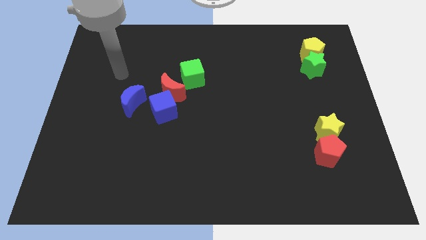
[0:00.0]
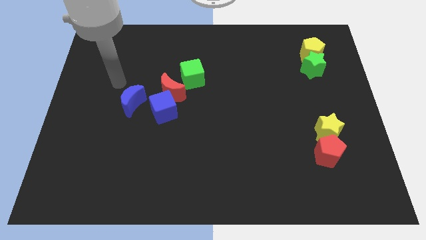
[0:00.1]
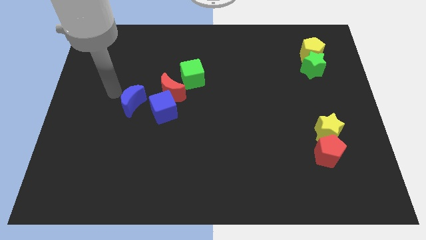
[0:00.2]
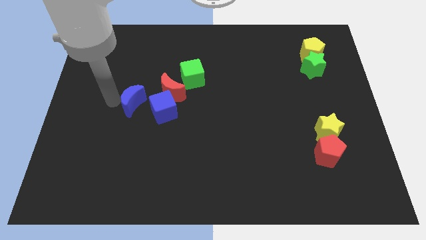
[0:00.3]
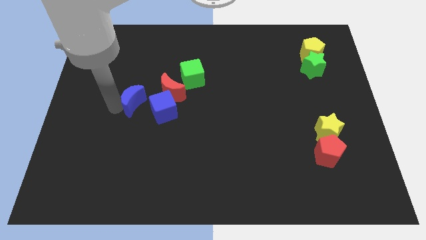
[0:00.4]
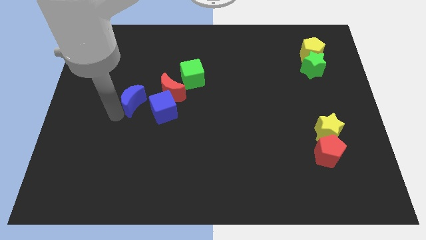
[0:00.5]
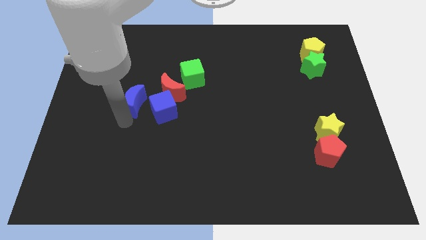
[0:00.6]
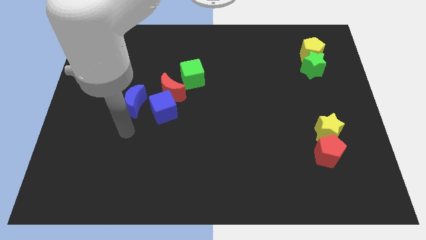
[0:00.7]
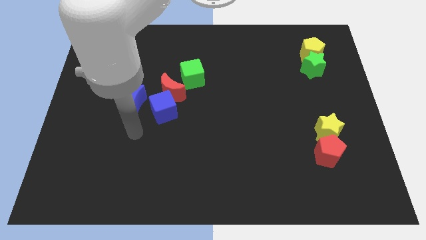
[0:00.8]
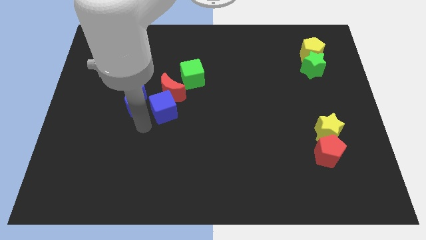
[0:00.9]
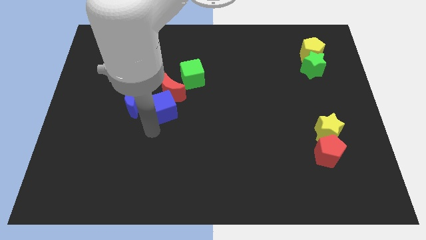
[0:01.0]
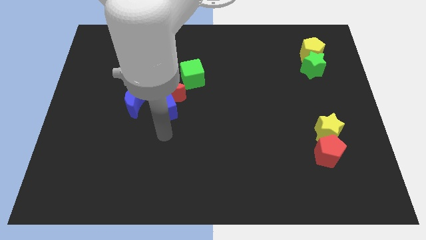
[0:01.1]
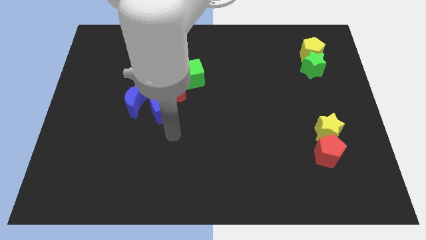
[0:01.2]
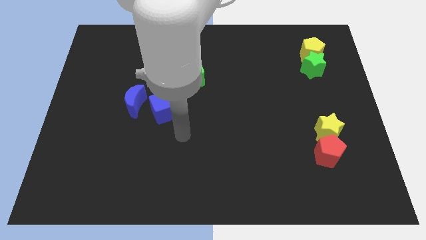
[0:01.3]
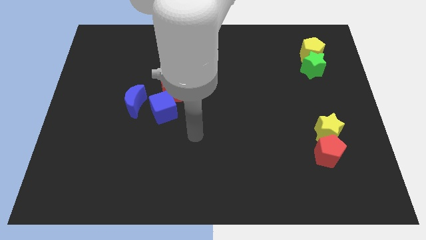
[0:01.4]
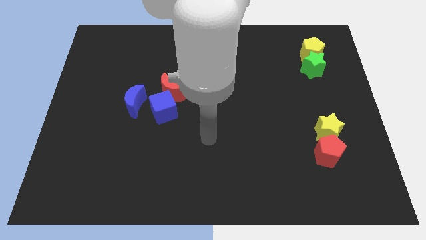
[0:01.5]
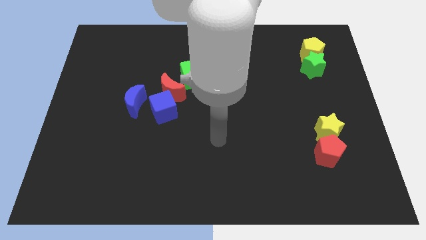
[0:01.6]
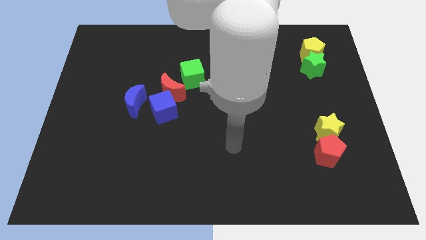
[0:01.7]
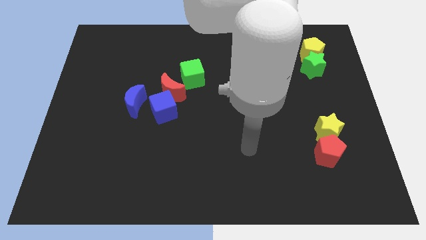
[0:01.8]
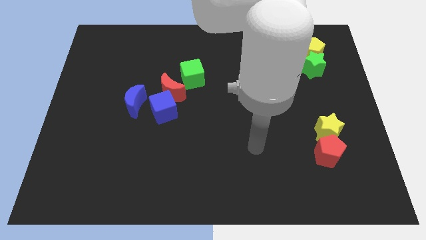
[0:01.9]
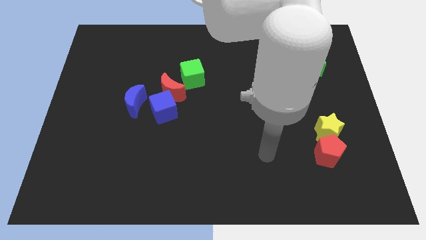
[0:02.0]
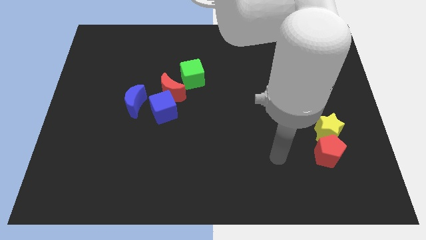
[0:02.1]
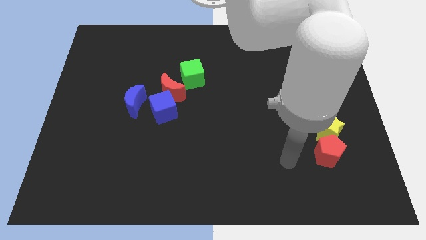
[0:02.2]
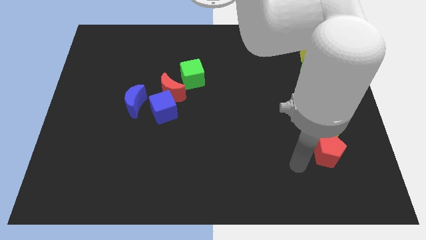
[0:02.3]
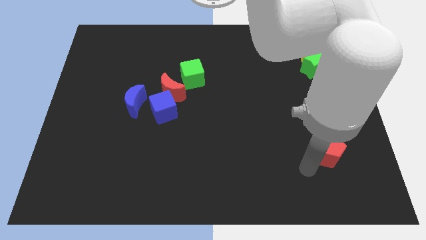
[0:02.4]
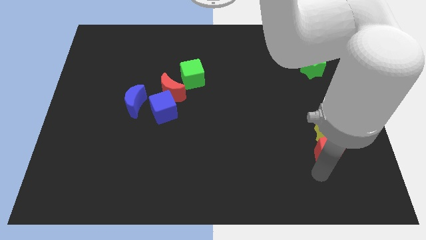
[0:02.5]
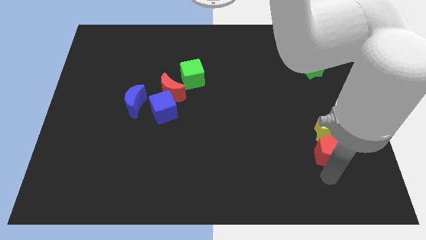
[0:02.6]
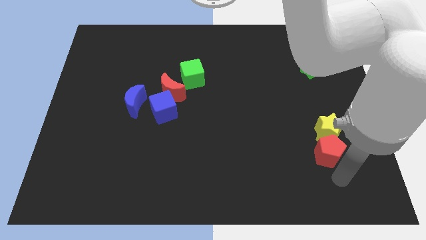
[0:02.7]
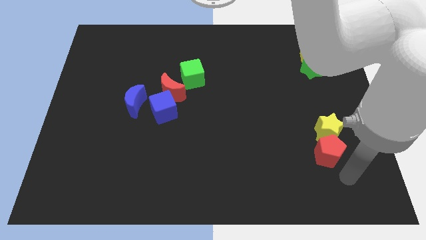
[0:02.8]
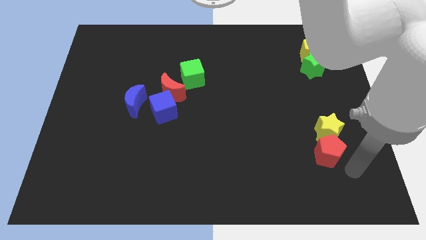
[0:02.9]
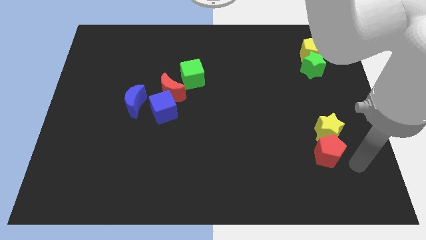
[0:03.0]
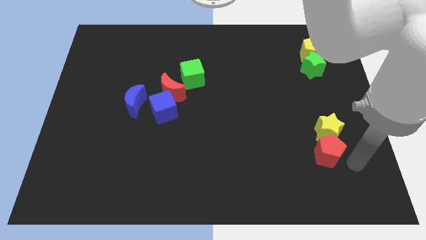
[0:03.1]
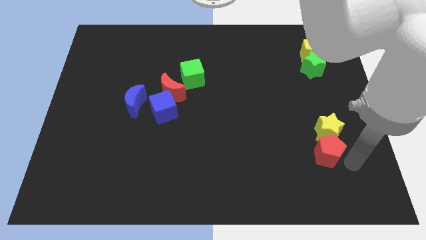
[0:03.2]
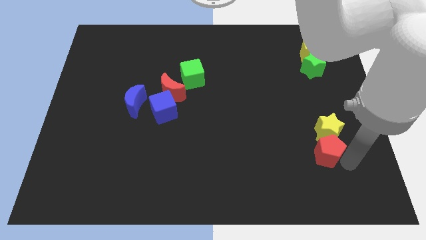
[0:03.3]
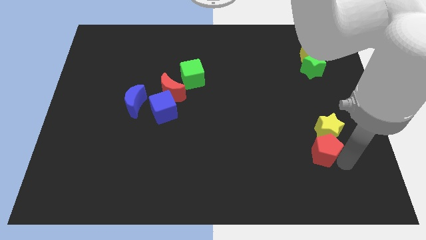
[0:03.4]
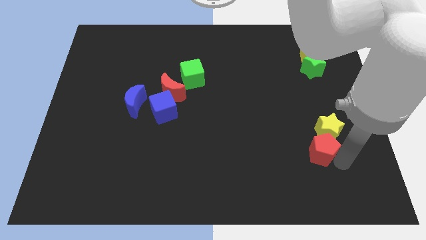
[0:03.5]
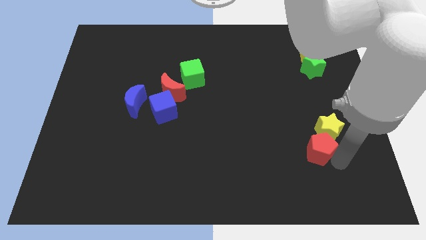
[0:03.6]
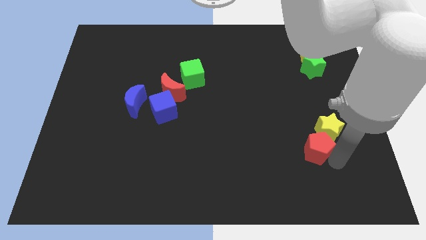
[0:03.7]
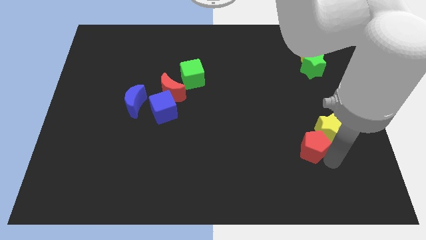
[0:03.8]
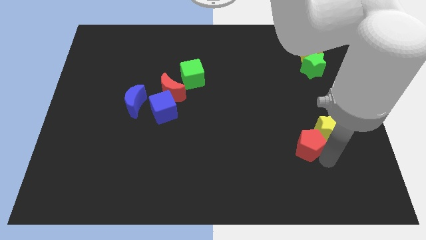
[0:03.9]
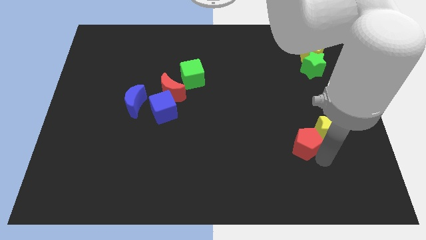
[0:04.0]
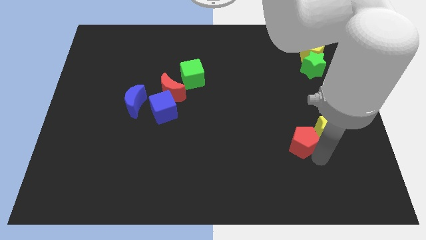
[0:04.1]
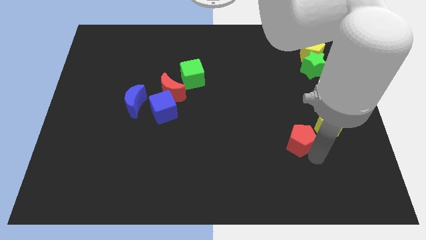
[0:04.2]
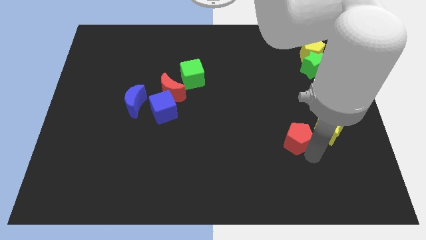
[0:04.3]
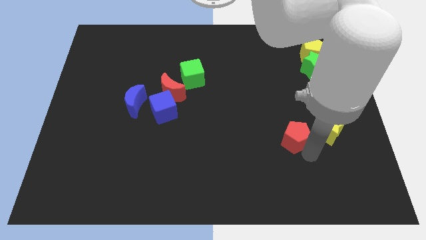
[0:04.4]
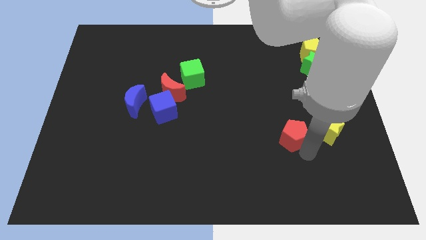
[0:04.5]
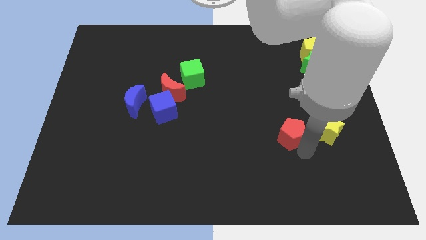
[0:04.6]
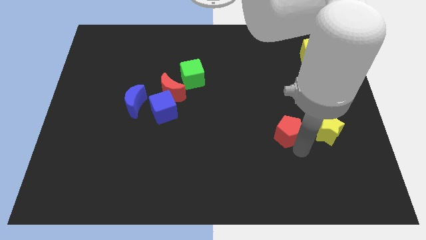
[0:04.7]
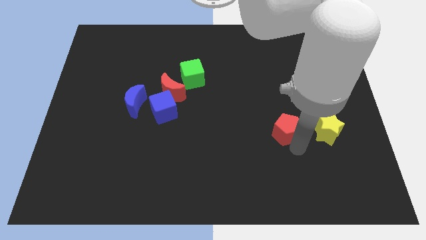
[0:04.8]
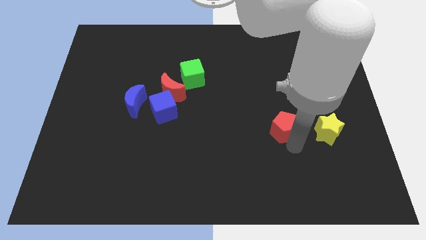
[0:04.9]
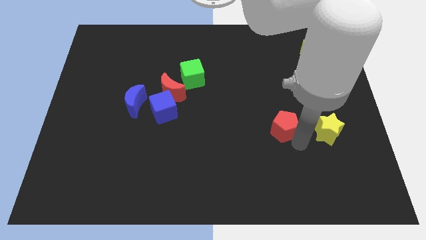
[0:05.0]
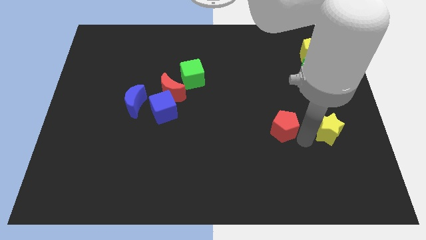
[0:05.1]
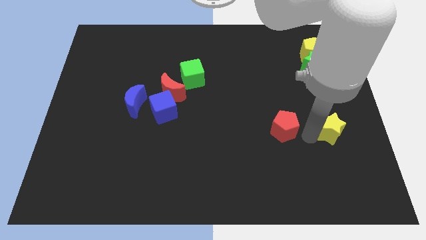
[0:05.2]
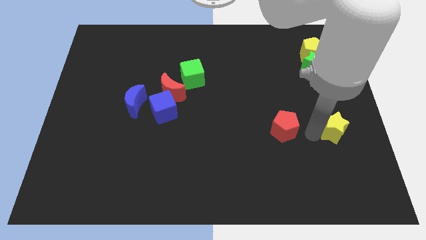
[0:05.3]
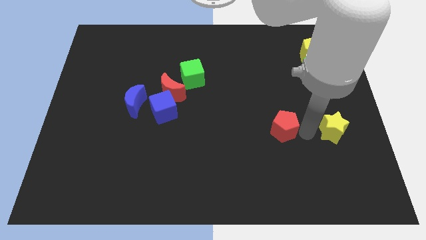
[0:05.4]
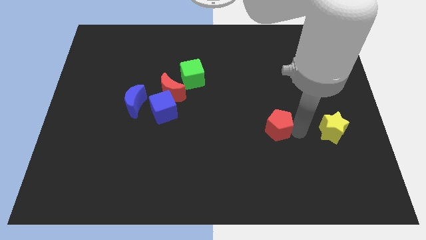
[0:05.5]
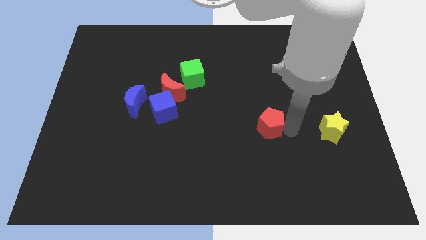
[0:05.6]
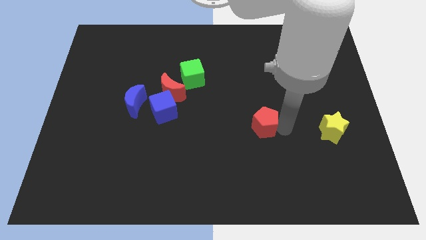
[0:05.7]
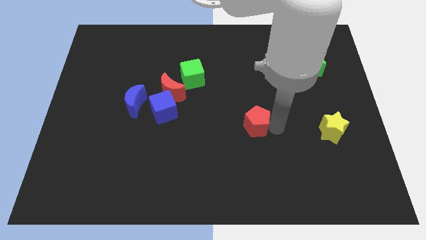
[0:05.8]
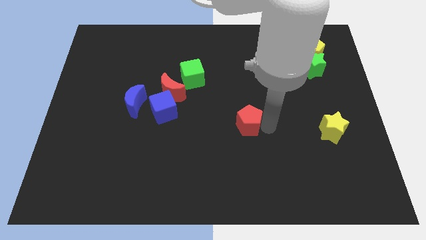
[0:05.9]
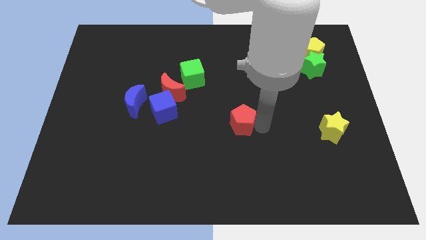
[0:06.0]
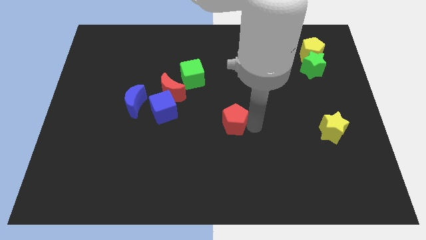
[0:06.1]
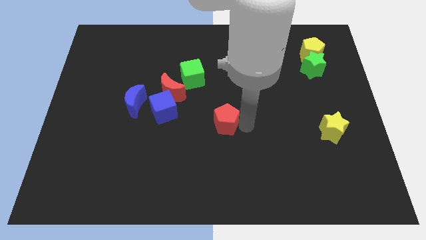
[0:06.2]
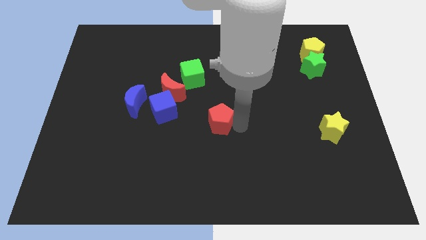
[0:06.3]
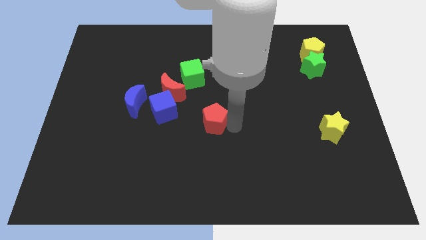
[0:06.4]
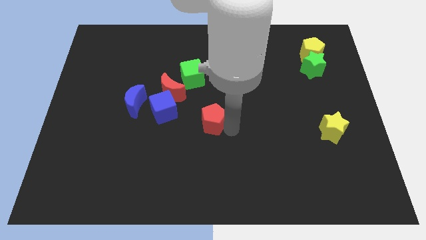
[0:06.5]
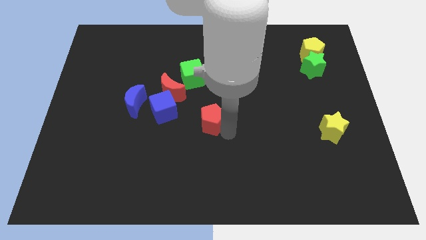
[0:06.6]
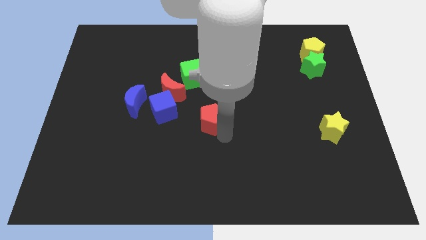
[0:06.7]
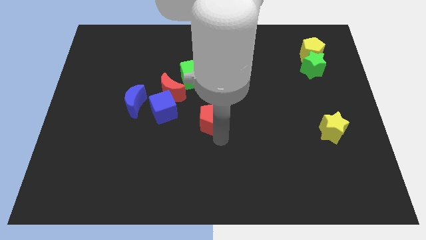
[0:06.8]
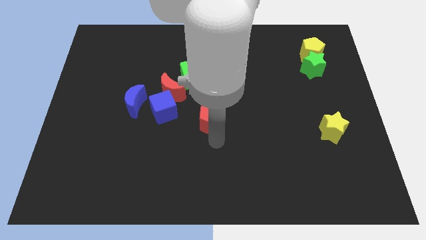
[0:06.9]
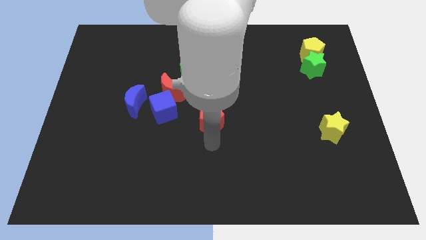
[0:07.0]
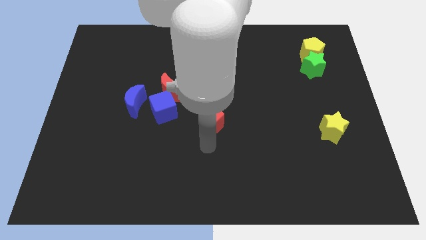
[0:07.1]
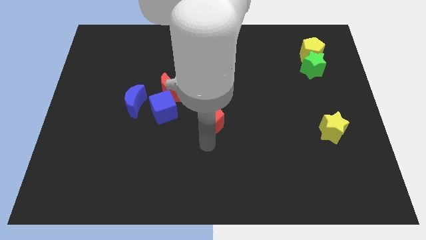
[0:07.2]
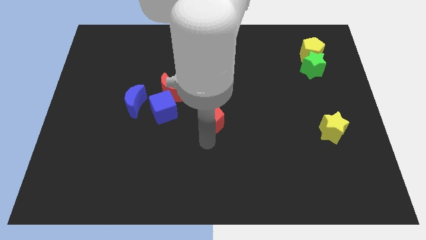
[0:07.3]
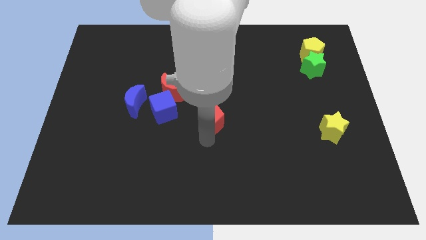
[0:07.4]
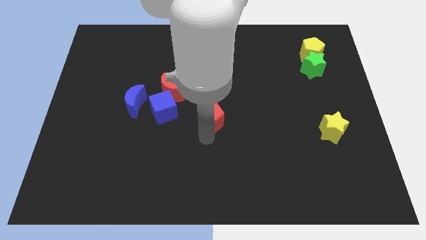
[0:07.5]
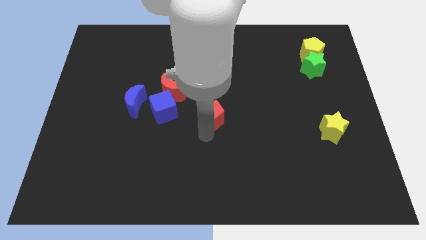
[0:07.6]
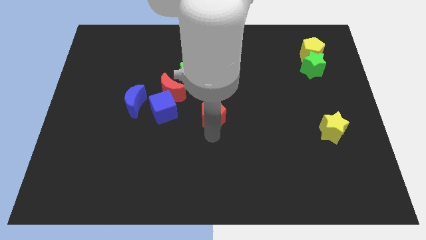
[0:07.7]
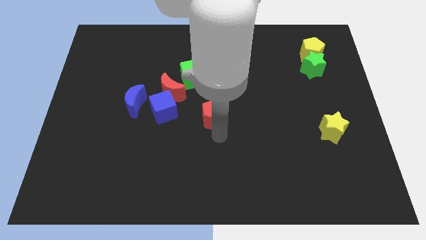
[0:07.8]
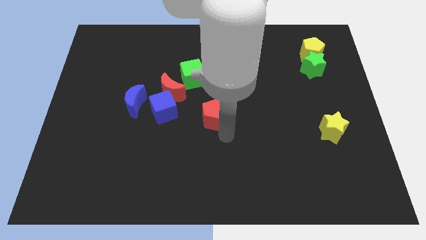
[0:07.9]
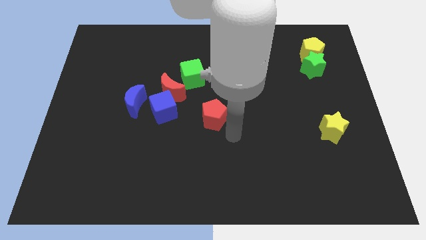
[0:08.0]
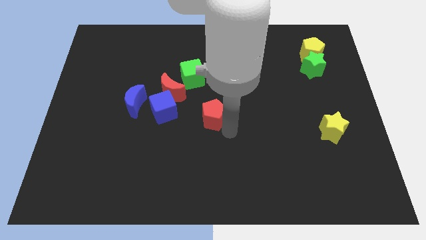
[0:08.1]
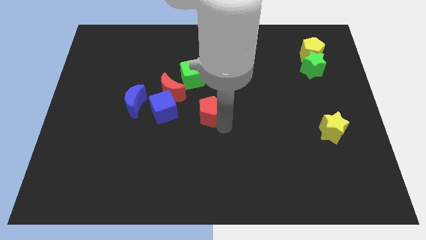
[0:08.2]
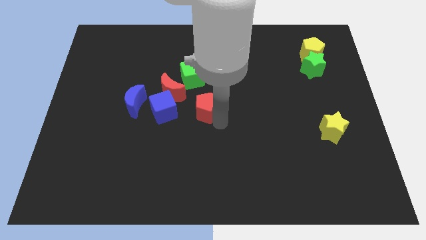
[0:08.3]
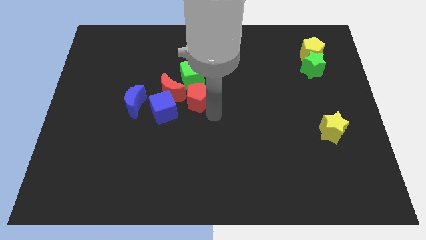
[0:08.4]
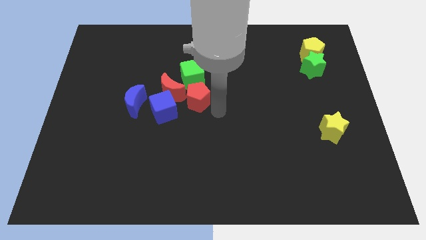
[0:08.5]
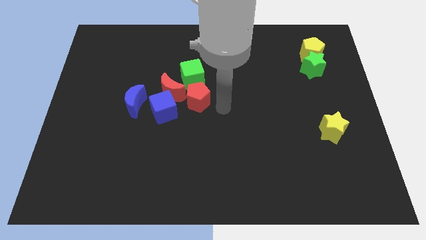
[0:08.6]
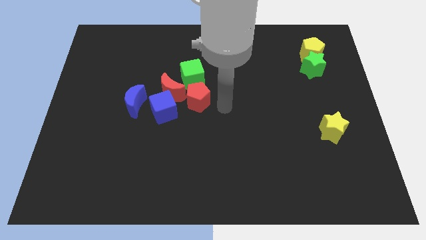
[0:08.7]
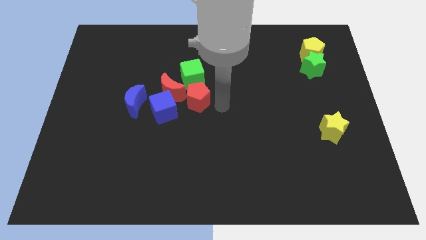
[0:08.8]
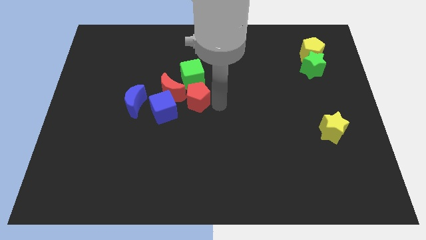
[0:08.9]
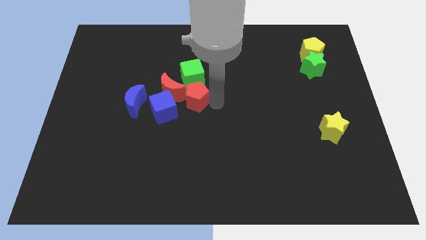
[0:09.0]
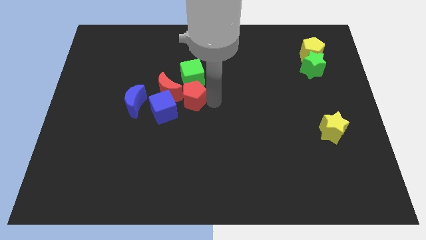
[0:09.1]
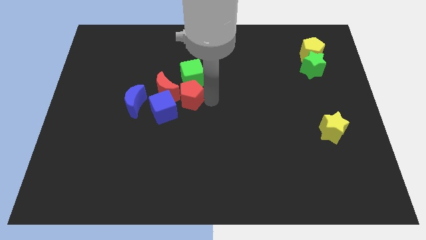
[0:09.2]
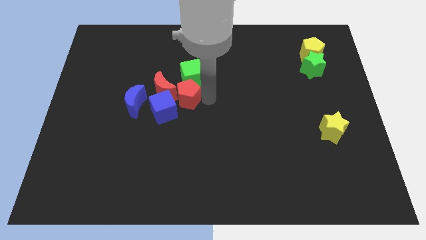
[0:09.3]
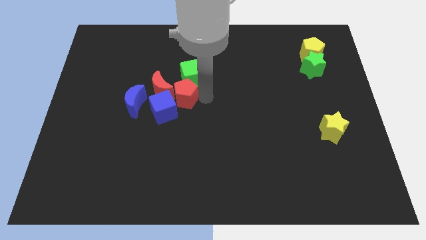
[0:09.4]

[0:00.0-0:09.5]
put the red pentagon towards the red moon
